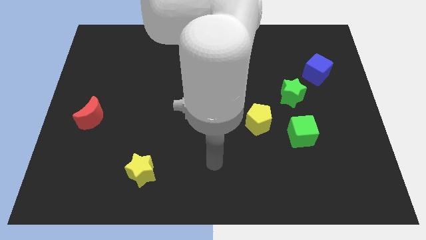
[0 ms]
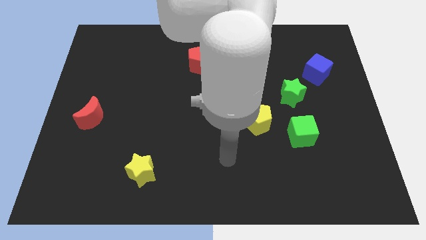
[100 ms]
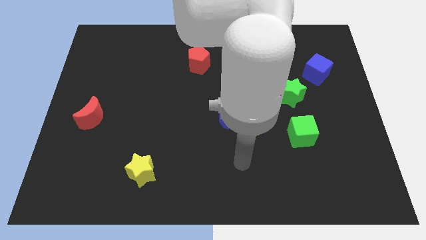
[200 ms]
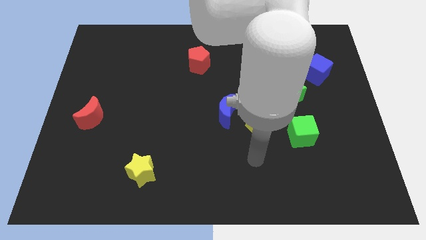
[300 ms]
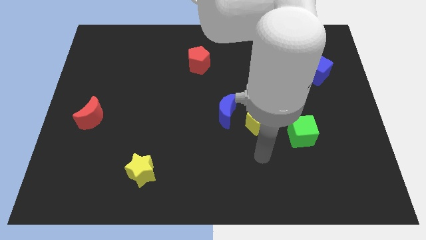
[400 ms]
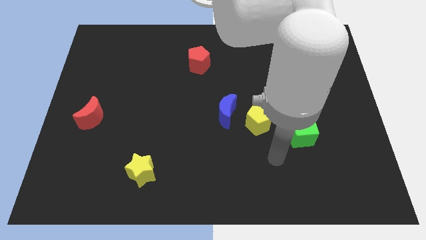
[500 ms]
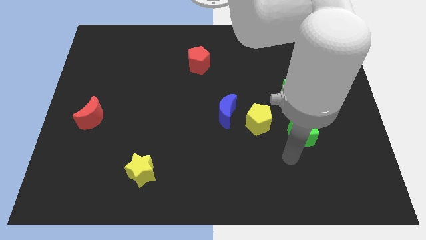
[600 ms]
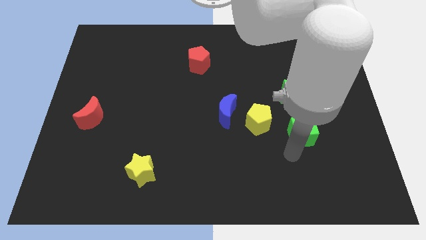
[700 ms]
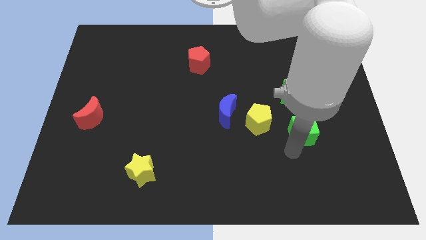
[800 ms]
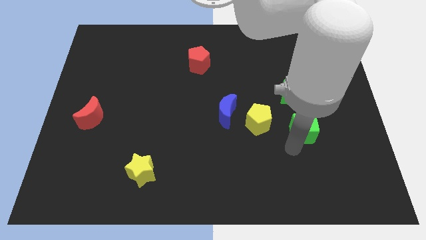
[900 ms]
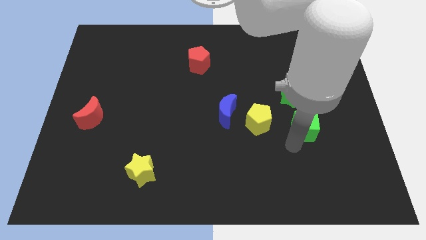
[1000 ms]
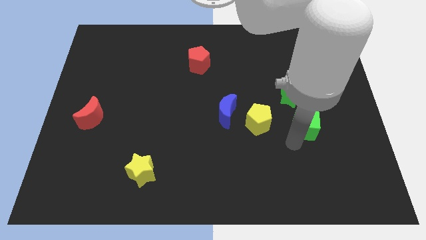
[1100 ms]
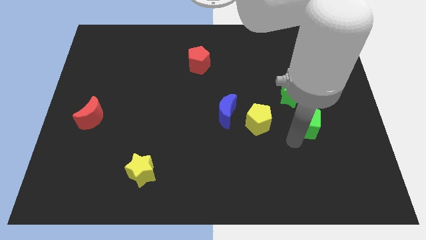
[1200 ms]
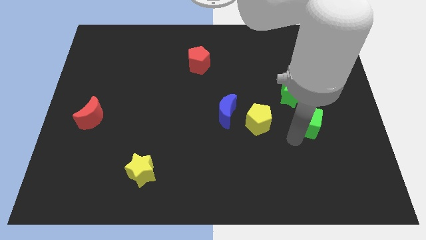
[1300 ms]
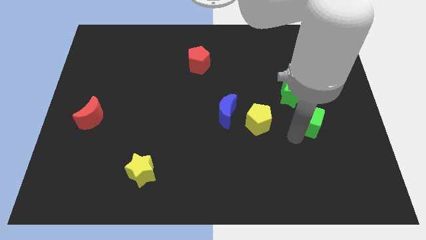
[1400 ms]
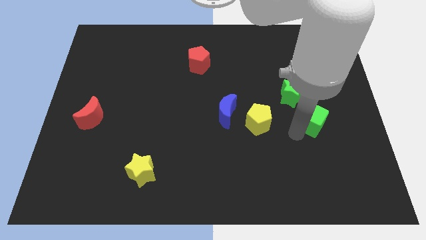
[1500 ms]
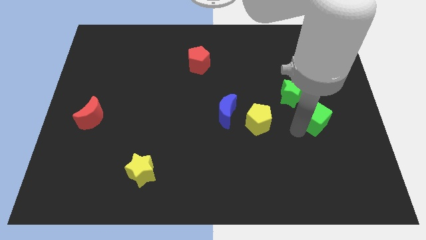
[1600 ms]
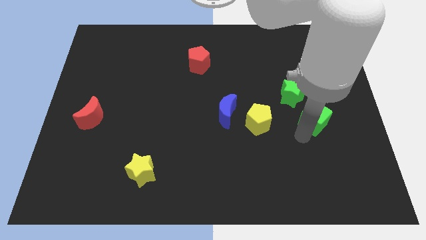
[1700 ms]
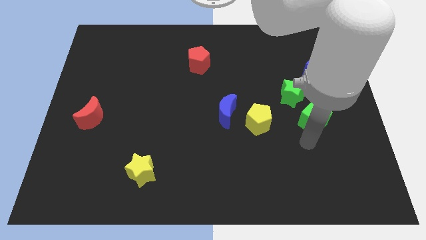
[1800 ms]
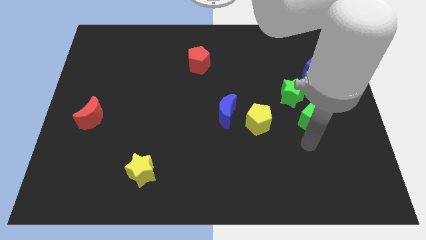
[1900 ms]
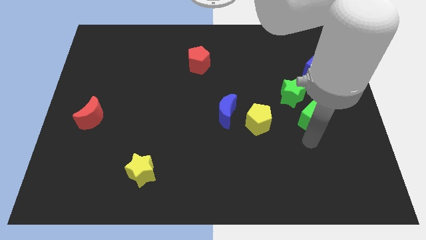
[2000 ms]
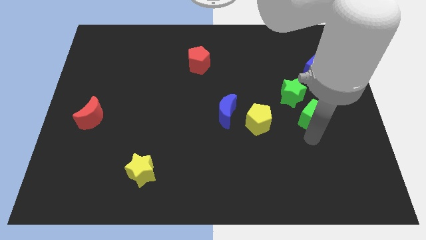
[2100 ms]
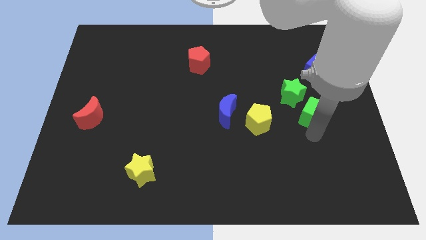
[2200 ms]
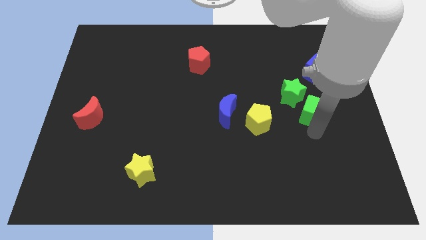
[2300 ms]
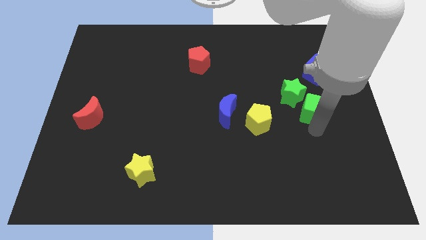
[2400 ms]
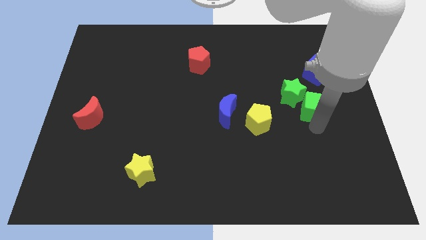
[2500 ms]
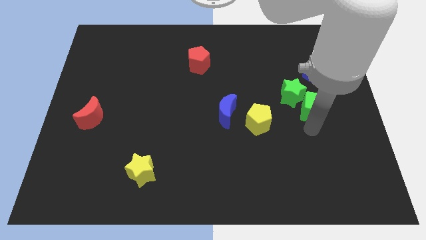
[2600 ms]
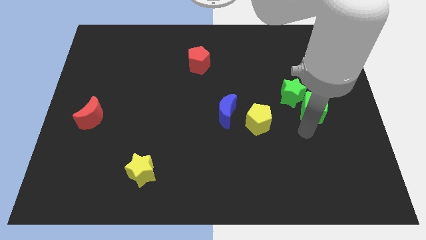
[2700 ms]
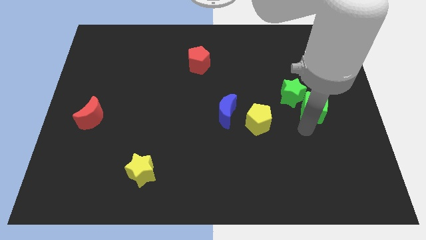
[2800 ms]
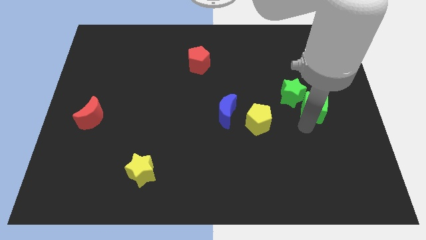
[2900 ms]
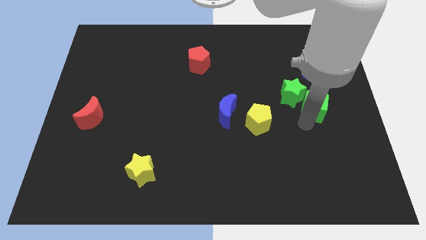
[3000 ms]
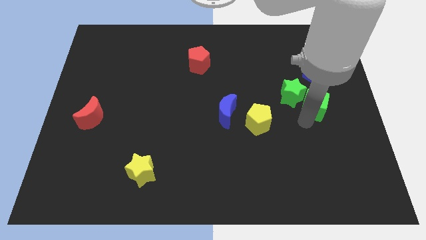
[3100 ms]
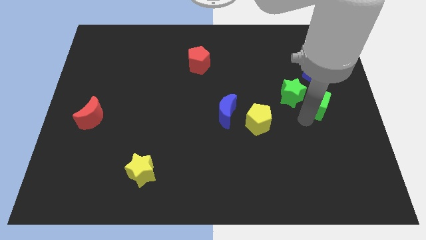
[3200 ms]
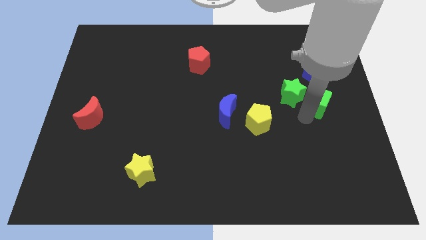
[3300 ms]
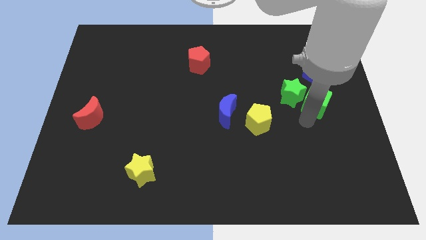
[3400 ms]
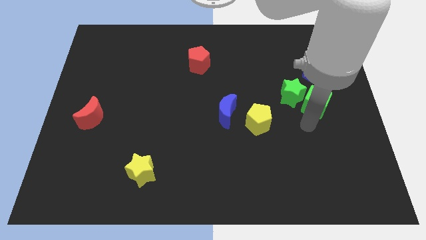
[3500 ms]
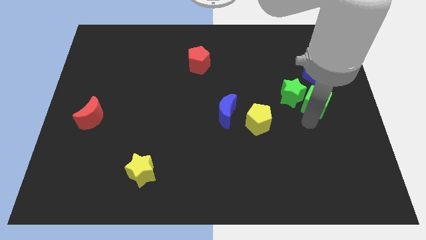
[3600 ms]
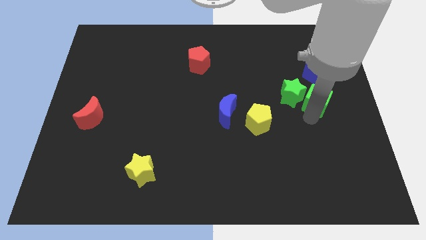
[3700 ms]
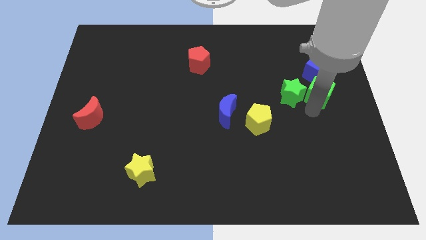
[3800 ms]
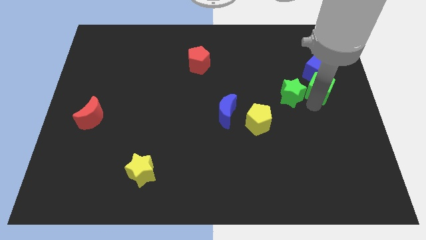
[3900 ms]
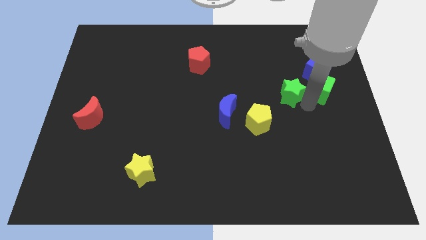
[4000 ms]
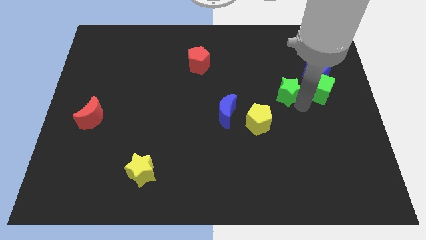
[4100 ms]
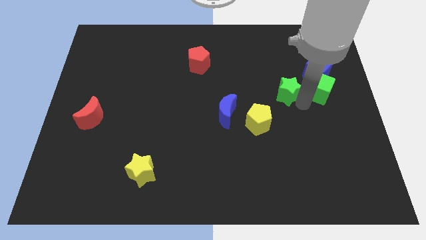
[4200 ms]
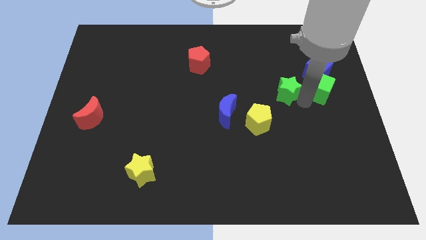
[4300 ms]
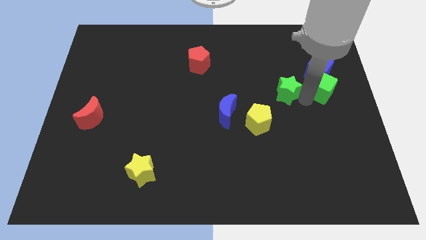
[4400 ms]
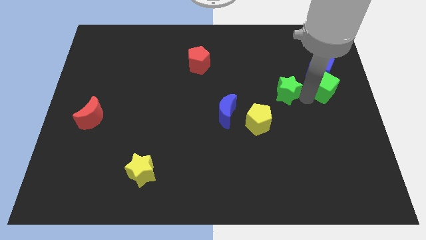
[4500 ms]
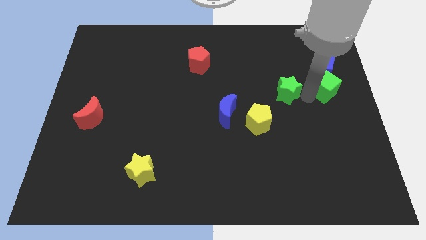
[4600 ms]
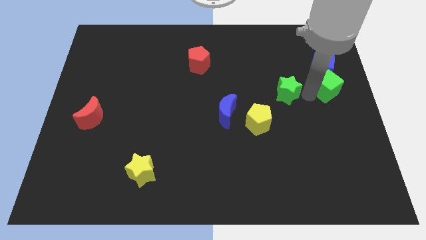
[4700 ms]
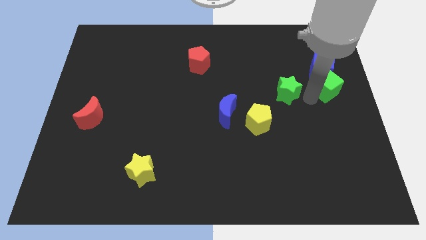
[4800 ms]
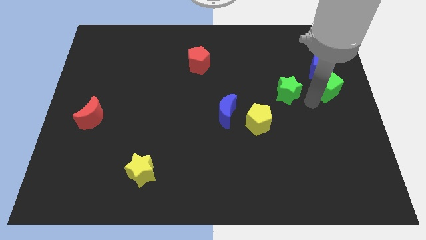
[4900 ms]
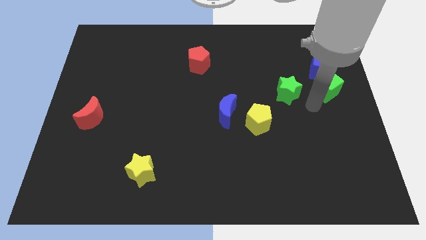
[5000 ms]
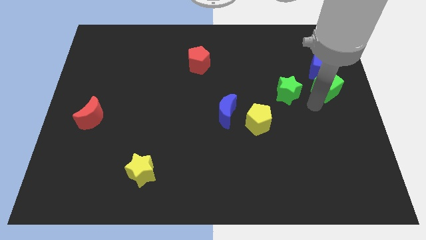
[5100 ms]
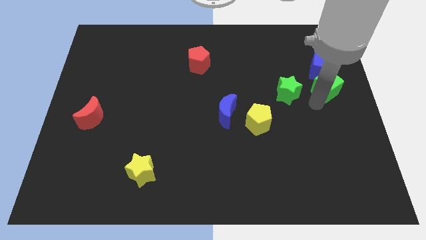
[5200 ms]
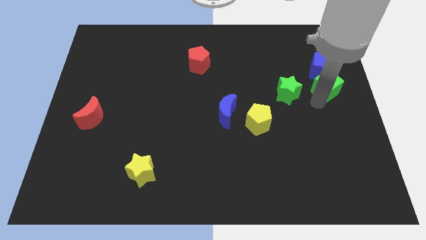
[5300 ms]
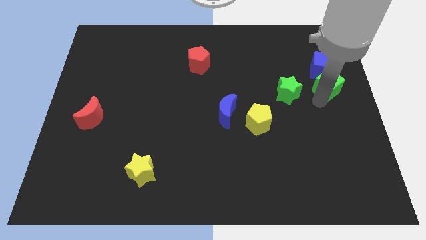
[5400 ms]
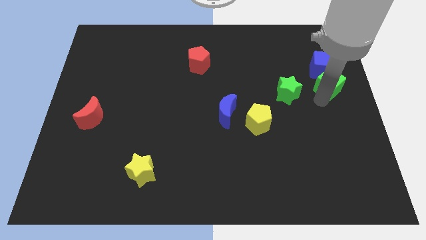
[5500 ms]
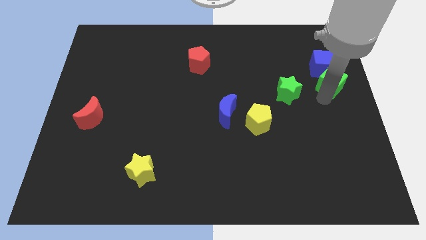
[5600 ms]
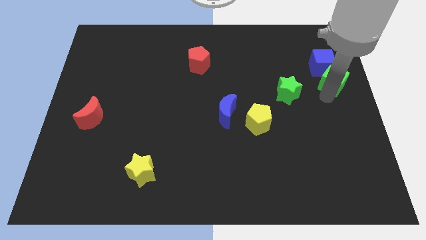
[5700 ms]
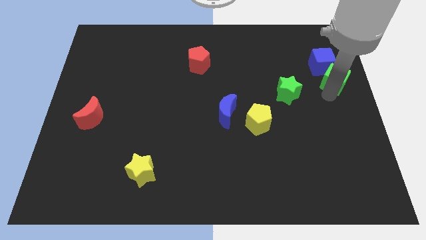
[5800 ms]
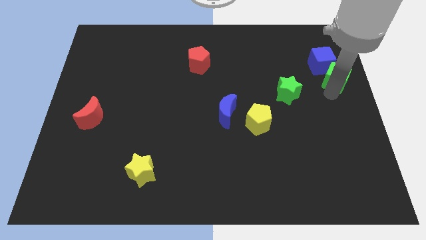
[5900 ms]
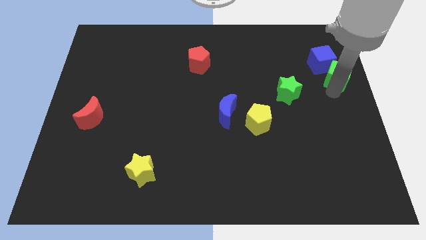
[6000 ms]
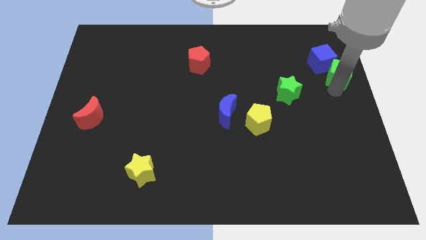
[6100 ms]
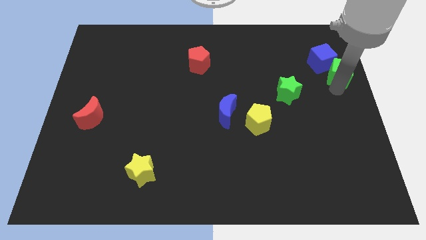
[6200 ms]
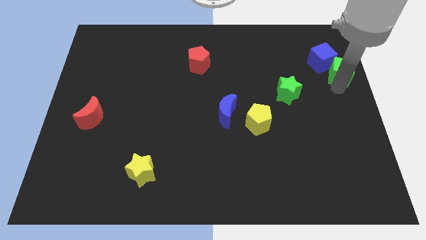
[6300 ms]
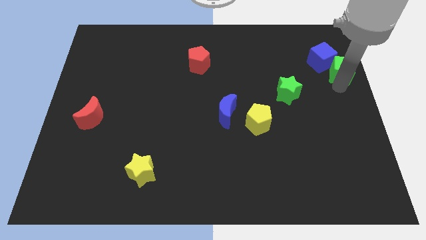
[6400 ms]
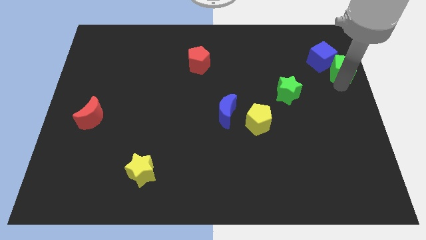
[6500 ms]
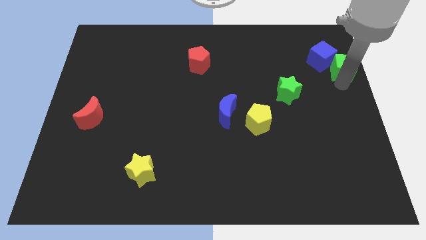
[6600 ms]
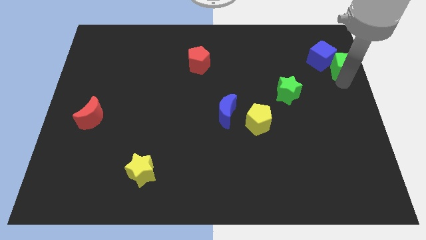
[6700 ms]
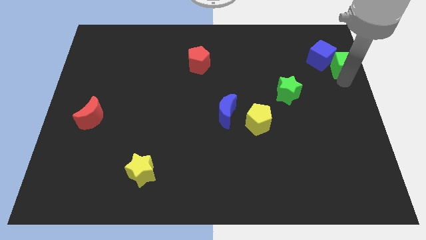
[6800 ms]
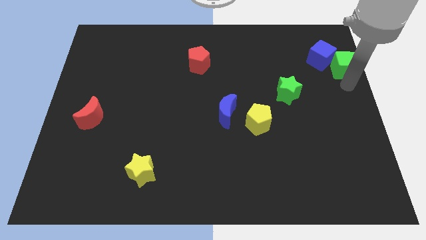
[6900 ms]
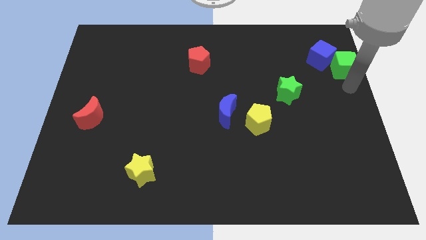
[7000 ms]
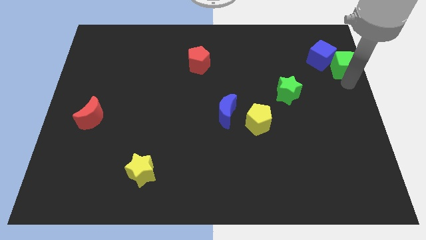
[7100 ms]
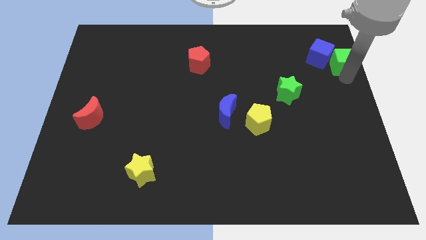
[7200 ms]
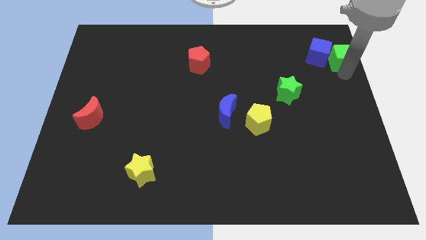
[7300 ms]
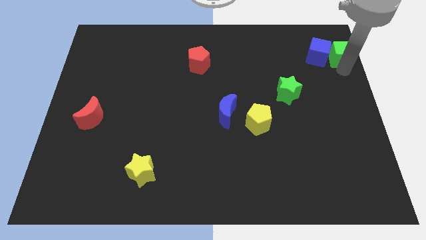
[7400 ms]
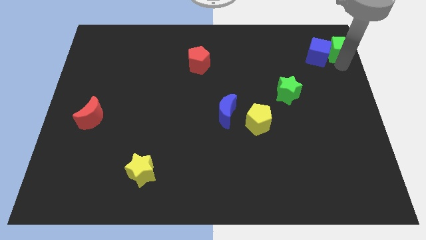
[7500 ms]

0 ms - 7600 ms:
slide the green cube to the upper right corner
